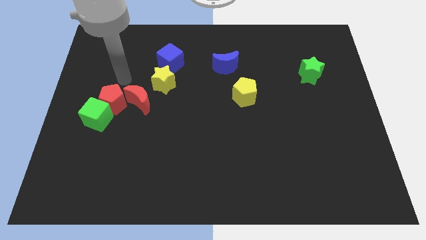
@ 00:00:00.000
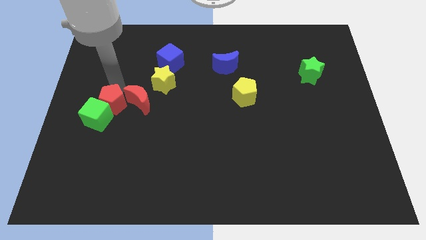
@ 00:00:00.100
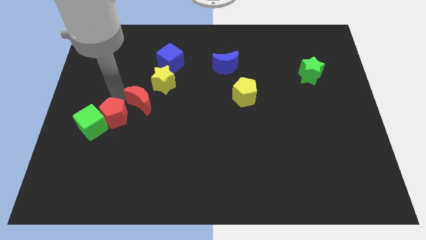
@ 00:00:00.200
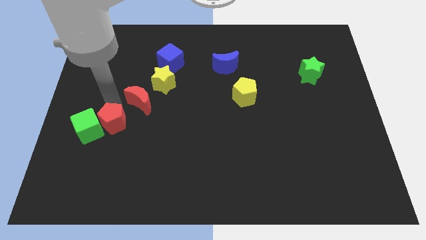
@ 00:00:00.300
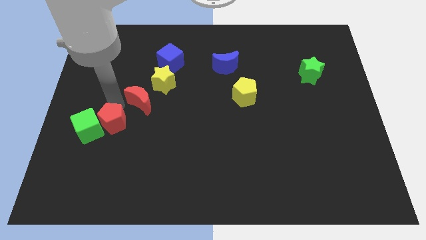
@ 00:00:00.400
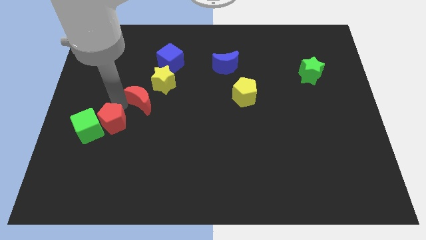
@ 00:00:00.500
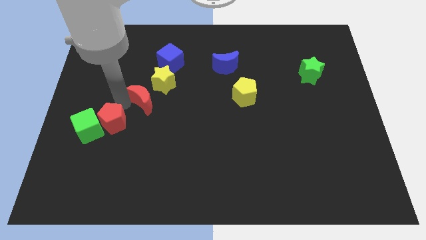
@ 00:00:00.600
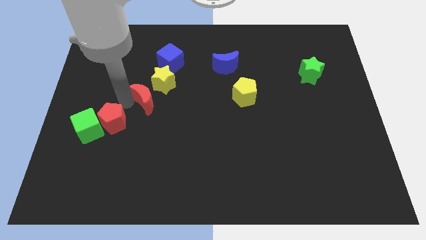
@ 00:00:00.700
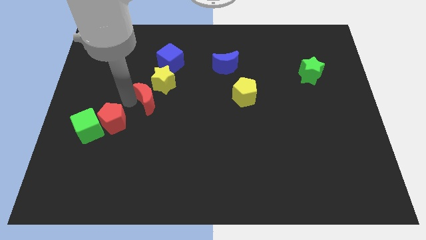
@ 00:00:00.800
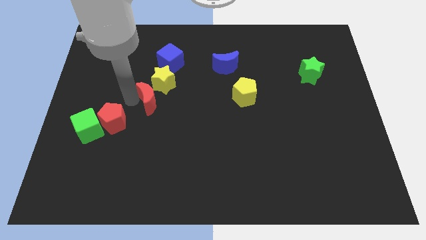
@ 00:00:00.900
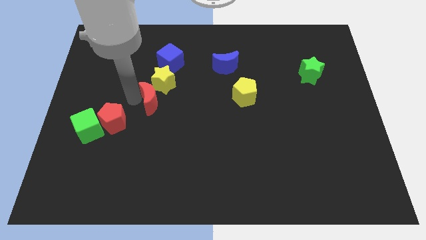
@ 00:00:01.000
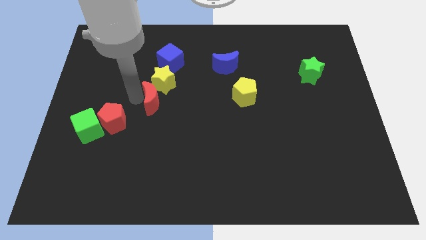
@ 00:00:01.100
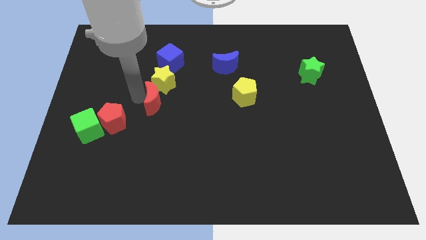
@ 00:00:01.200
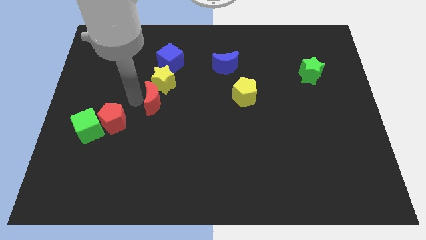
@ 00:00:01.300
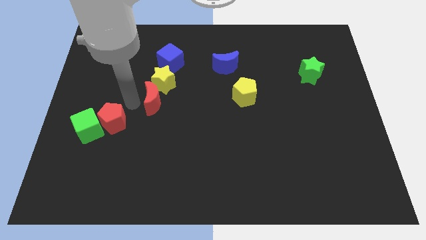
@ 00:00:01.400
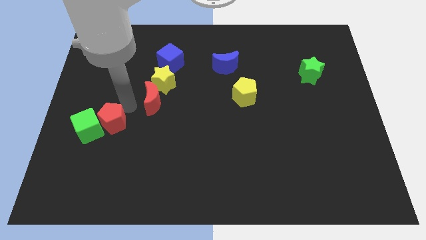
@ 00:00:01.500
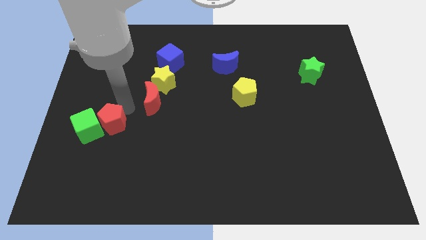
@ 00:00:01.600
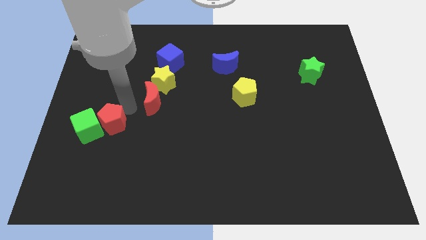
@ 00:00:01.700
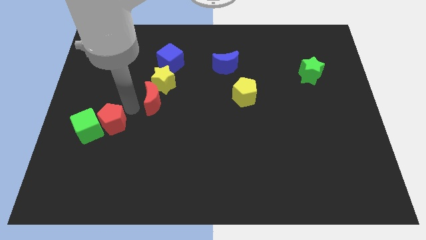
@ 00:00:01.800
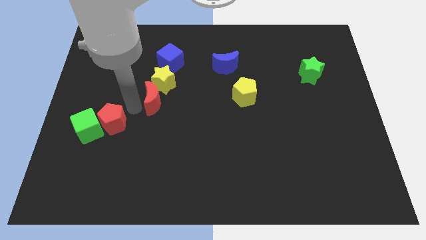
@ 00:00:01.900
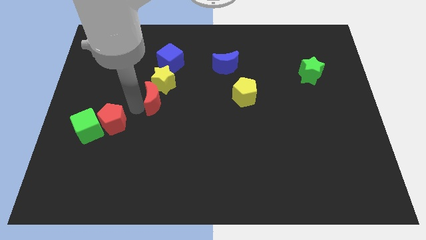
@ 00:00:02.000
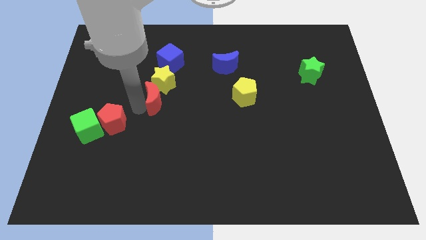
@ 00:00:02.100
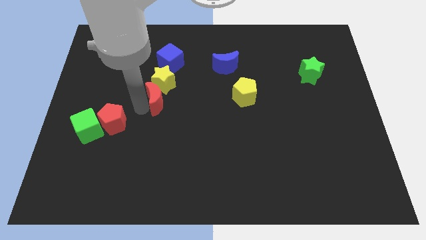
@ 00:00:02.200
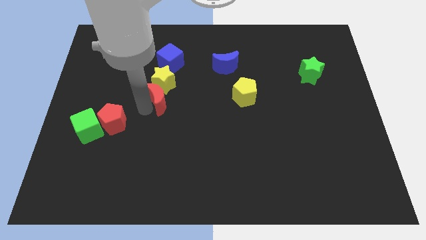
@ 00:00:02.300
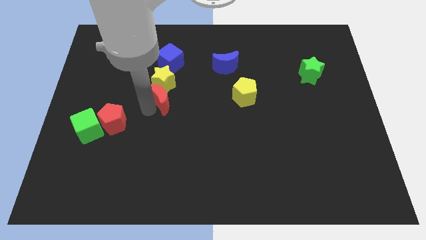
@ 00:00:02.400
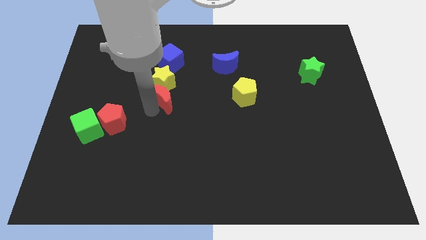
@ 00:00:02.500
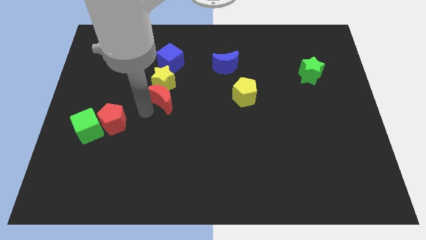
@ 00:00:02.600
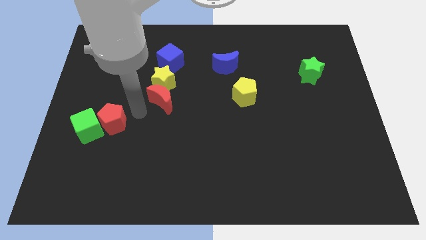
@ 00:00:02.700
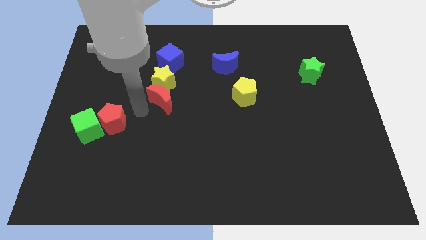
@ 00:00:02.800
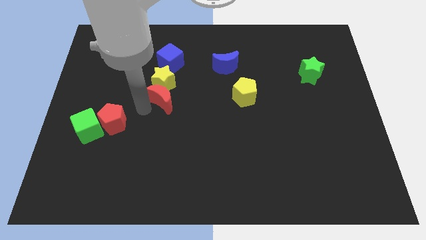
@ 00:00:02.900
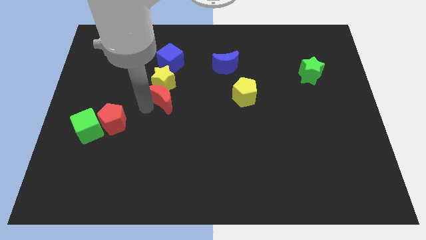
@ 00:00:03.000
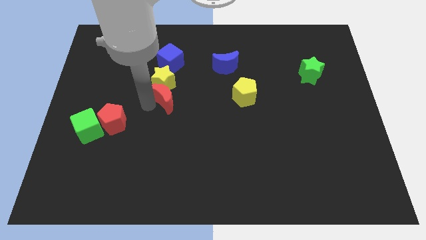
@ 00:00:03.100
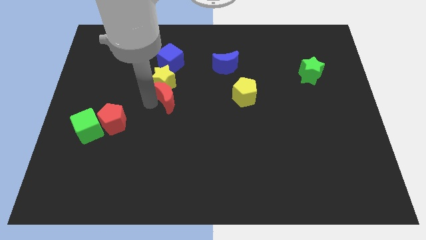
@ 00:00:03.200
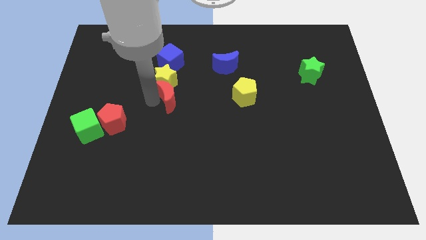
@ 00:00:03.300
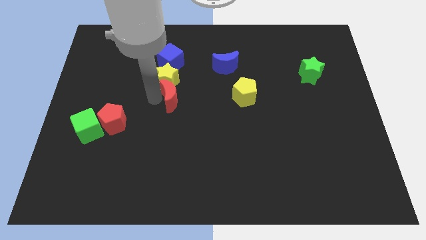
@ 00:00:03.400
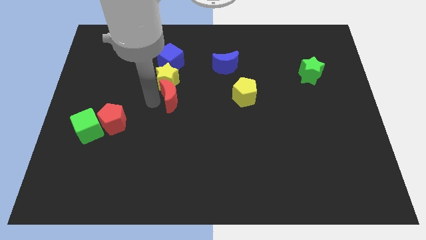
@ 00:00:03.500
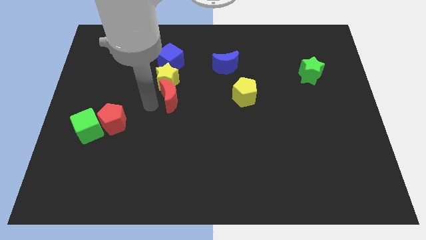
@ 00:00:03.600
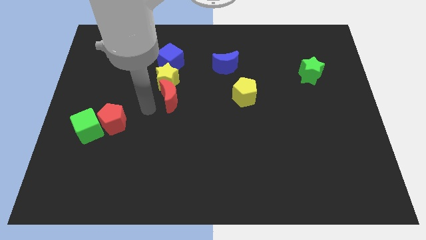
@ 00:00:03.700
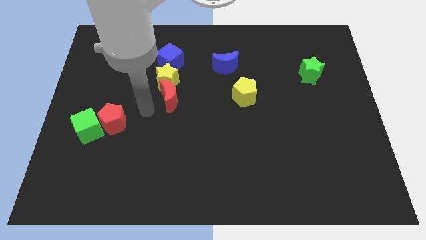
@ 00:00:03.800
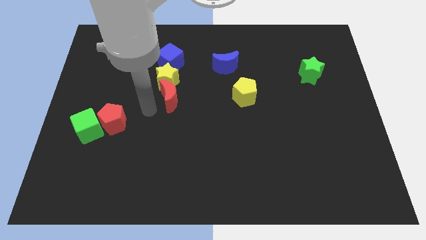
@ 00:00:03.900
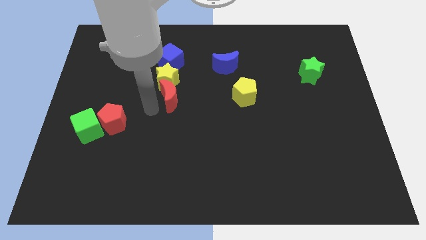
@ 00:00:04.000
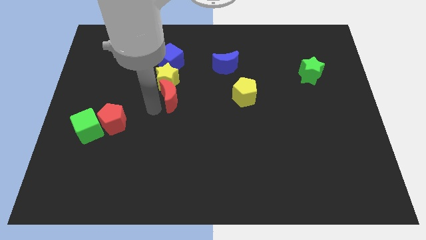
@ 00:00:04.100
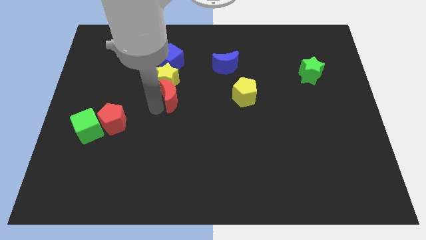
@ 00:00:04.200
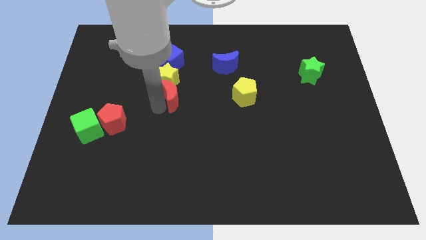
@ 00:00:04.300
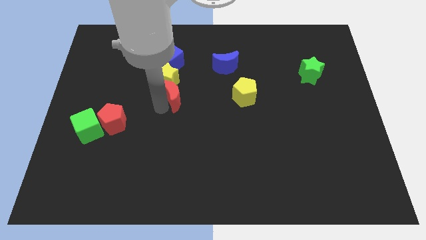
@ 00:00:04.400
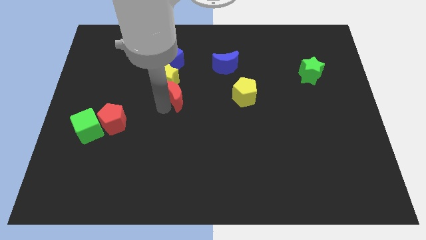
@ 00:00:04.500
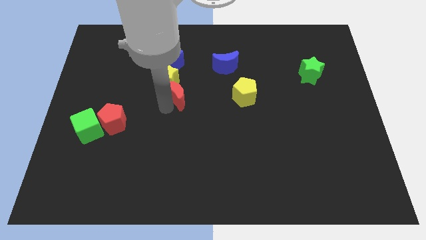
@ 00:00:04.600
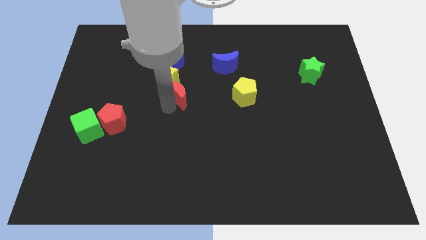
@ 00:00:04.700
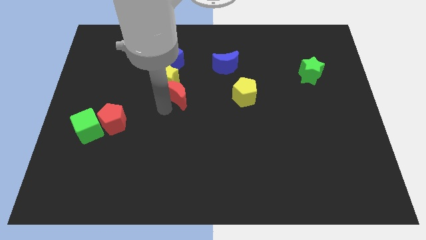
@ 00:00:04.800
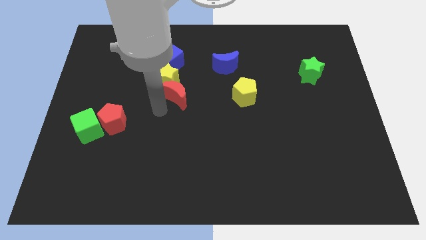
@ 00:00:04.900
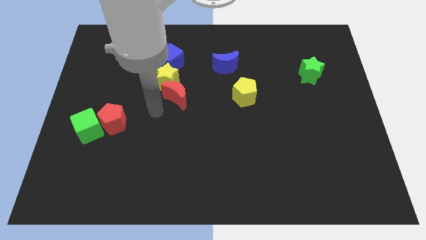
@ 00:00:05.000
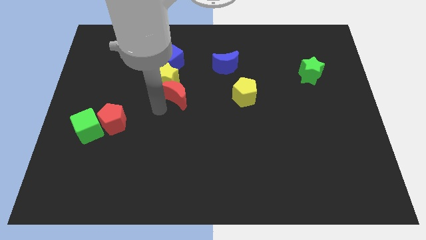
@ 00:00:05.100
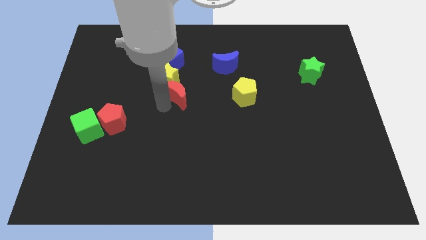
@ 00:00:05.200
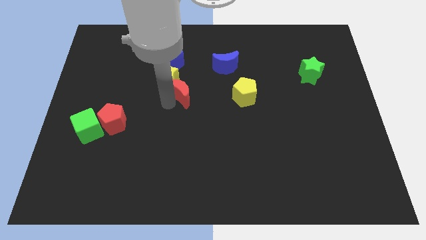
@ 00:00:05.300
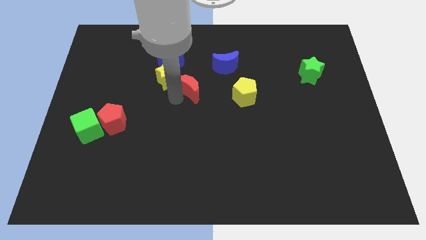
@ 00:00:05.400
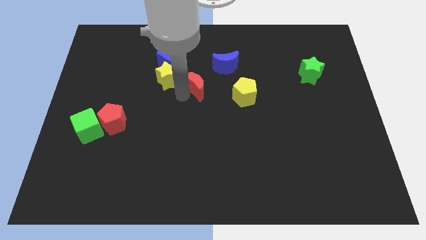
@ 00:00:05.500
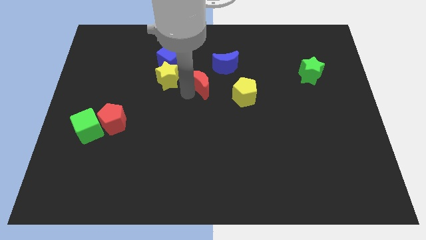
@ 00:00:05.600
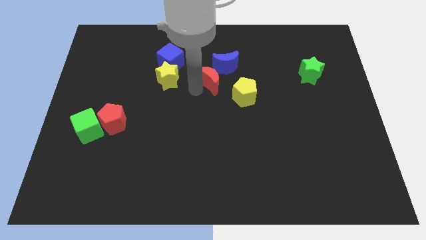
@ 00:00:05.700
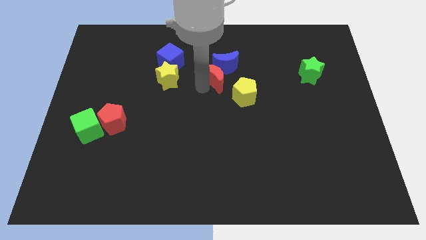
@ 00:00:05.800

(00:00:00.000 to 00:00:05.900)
move the red moon close to the blue moon
